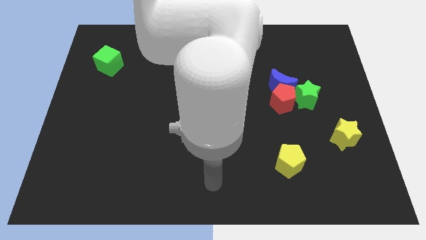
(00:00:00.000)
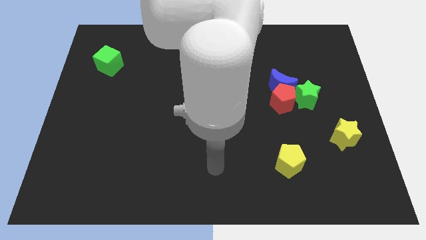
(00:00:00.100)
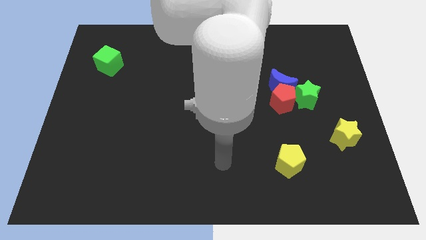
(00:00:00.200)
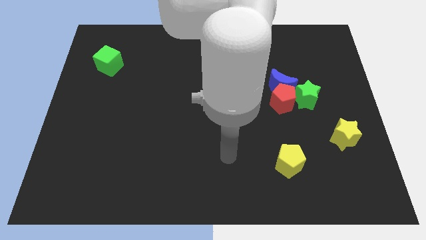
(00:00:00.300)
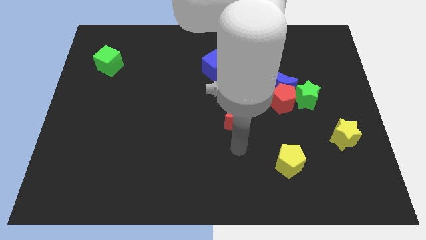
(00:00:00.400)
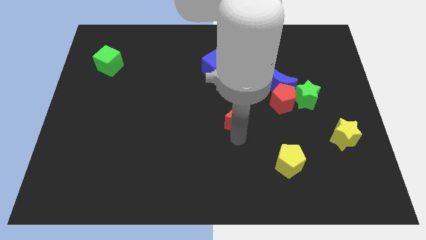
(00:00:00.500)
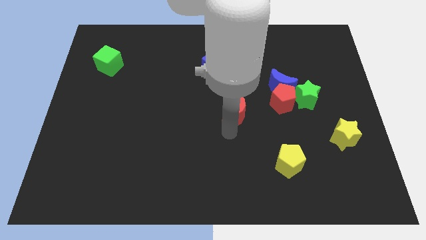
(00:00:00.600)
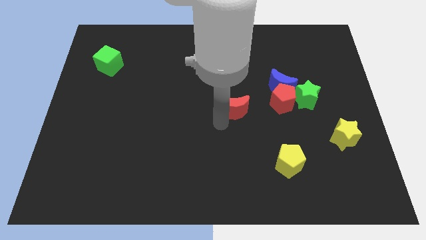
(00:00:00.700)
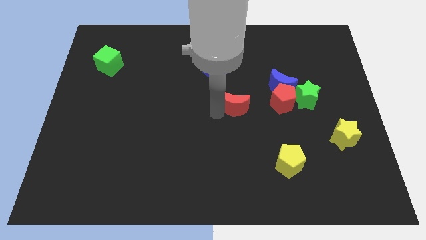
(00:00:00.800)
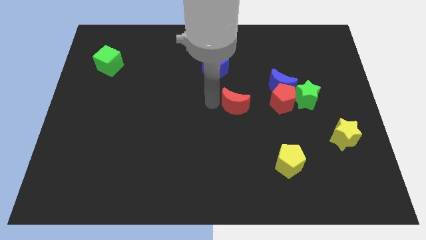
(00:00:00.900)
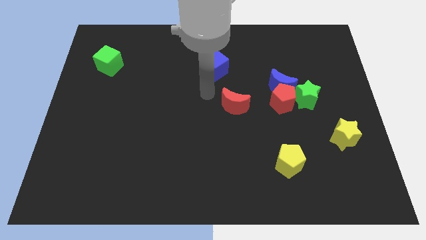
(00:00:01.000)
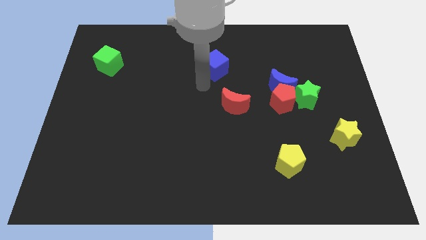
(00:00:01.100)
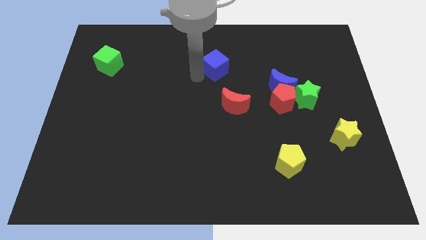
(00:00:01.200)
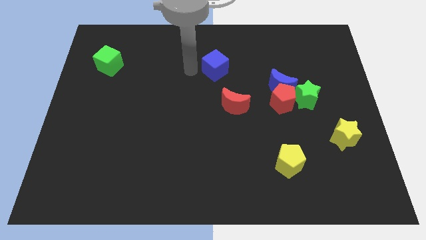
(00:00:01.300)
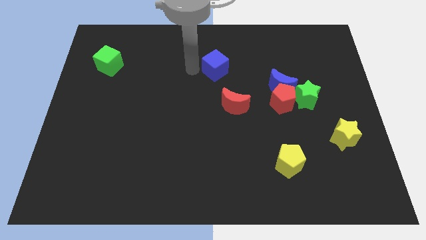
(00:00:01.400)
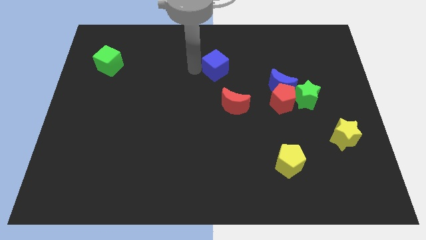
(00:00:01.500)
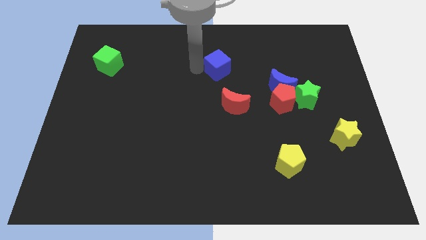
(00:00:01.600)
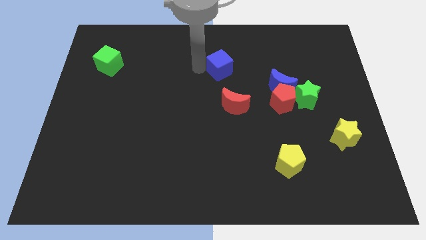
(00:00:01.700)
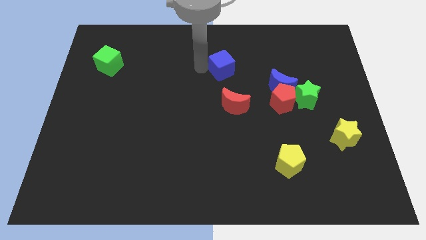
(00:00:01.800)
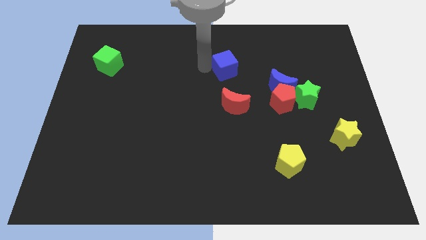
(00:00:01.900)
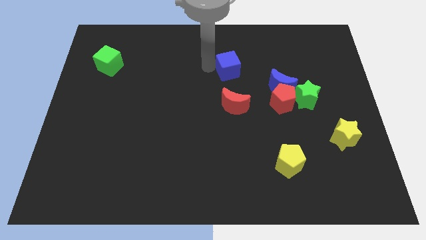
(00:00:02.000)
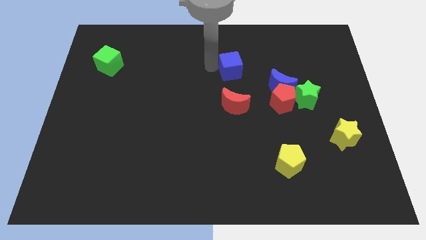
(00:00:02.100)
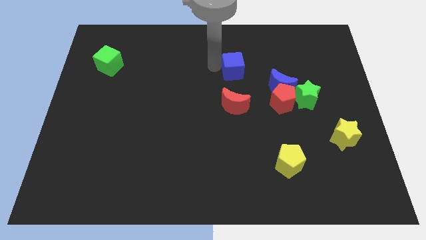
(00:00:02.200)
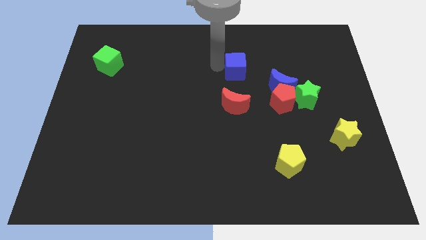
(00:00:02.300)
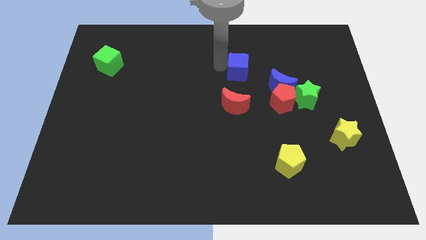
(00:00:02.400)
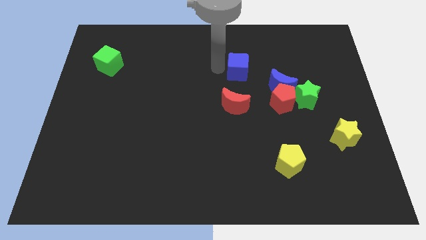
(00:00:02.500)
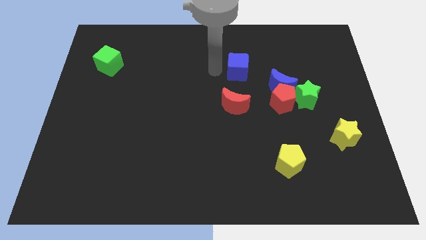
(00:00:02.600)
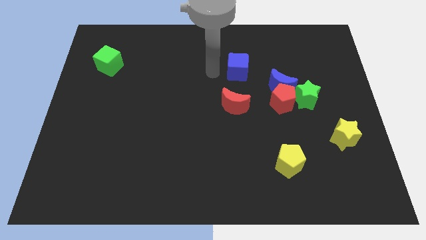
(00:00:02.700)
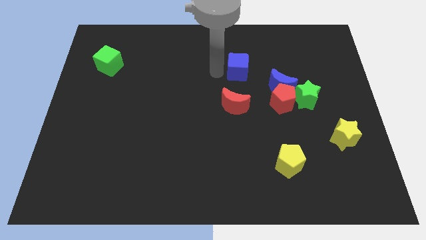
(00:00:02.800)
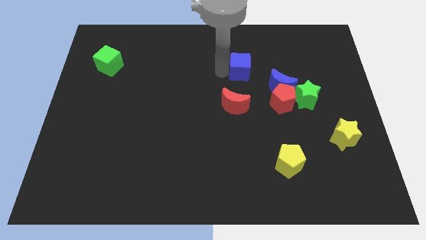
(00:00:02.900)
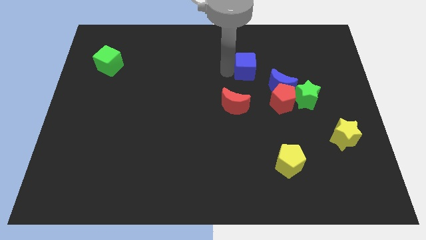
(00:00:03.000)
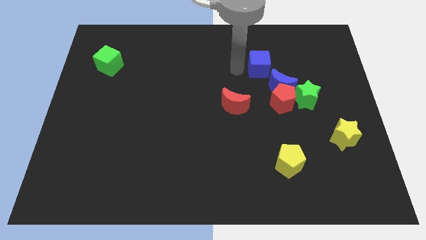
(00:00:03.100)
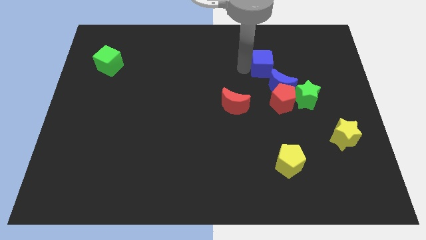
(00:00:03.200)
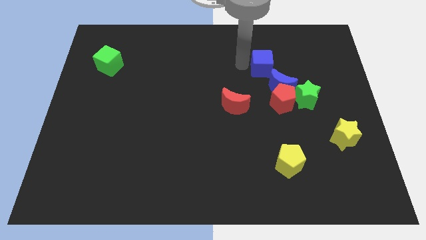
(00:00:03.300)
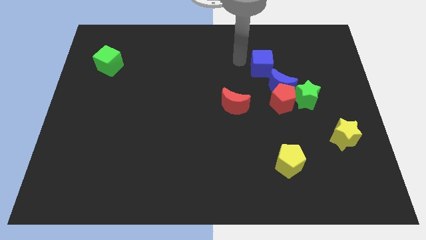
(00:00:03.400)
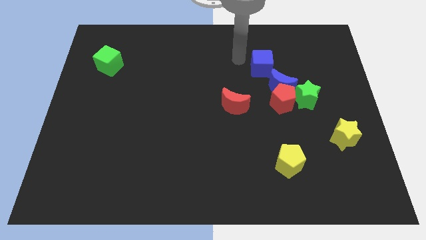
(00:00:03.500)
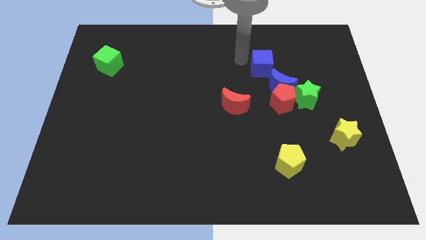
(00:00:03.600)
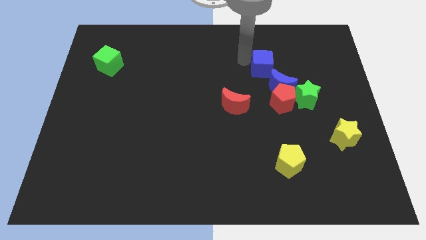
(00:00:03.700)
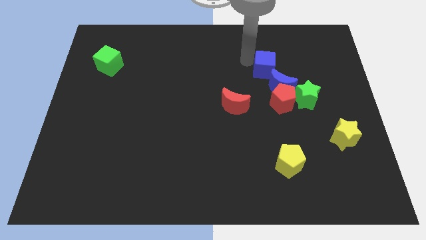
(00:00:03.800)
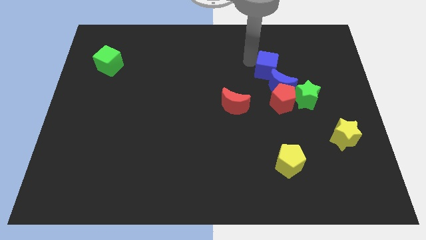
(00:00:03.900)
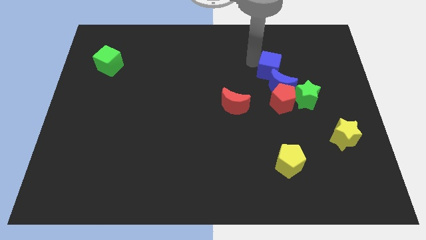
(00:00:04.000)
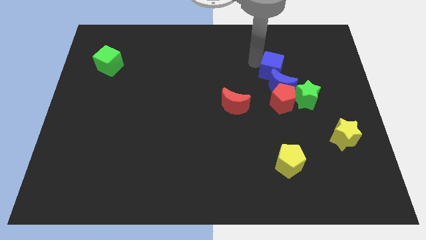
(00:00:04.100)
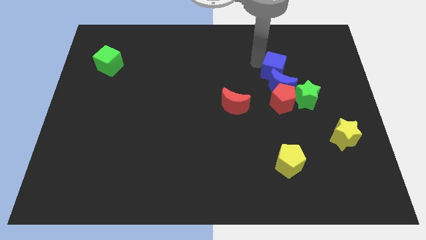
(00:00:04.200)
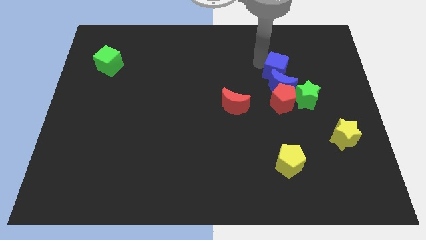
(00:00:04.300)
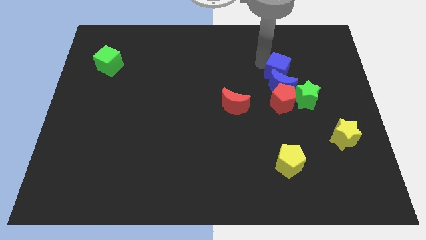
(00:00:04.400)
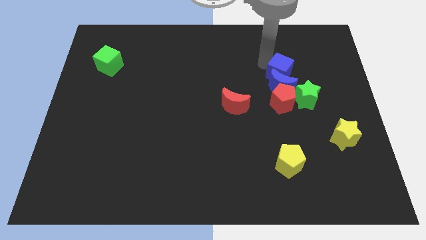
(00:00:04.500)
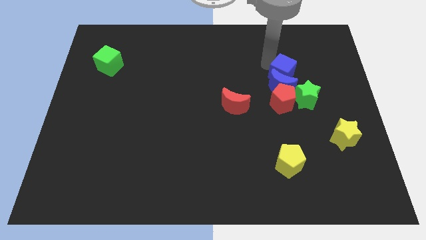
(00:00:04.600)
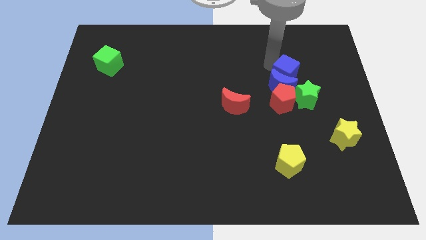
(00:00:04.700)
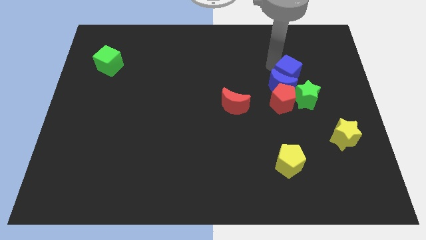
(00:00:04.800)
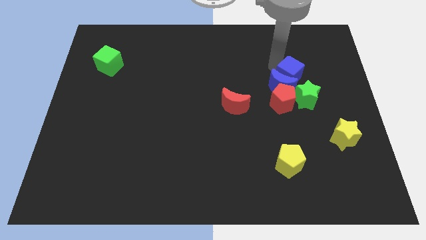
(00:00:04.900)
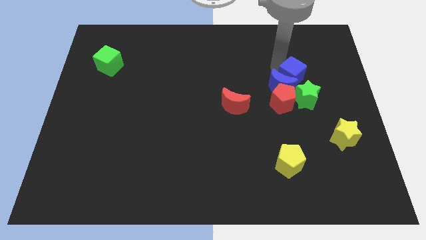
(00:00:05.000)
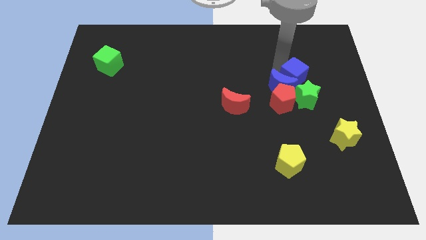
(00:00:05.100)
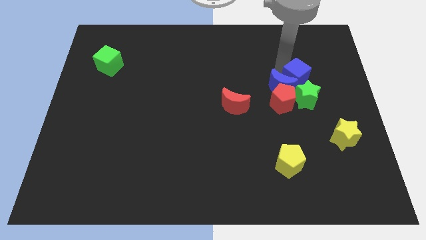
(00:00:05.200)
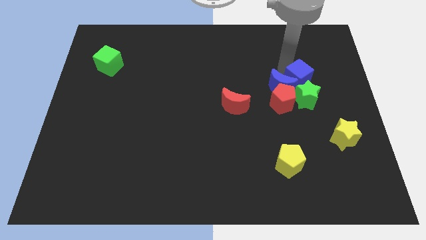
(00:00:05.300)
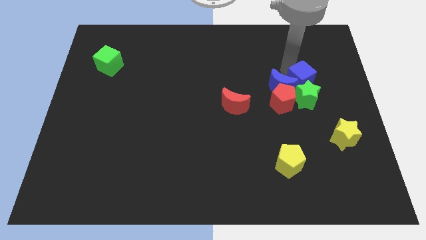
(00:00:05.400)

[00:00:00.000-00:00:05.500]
move the blue cube to the green star
